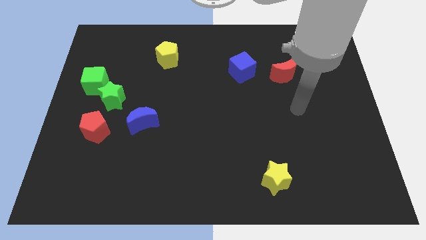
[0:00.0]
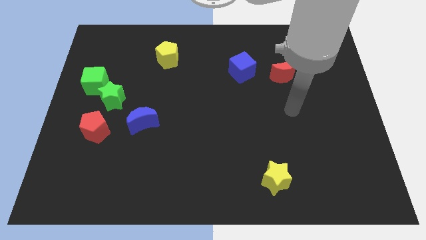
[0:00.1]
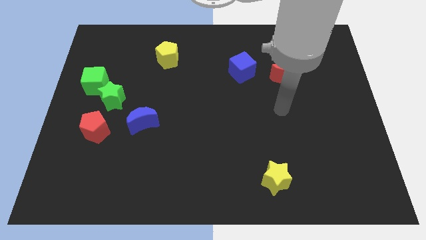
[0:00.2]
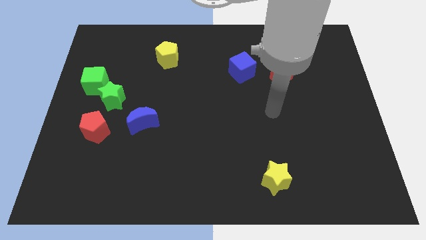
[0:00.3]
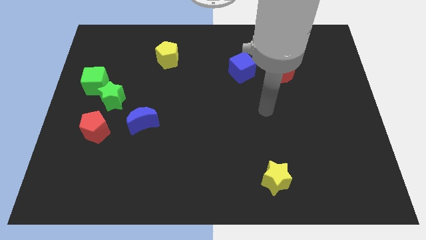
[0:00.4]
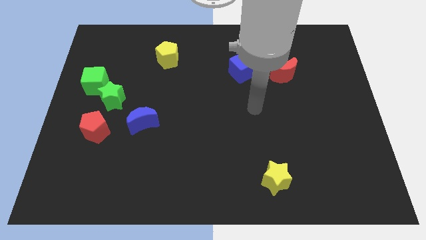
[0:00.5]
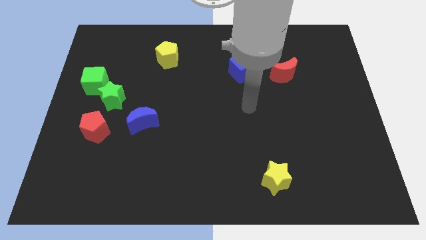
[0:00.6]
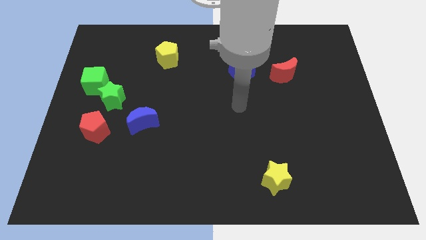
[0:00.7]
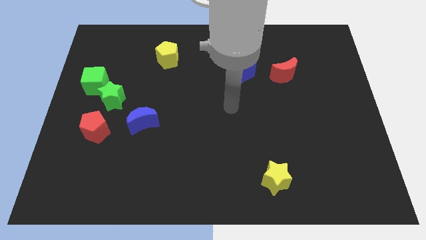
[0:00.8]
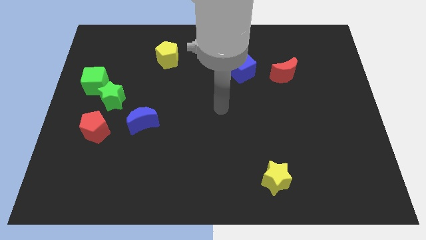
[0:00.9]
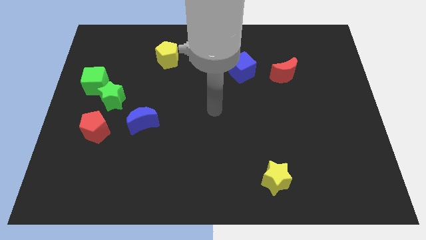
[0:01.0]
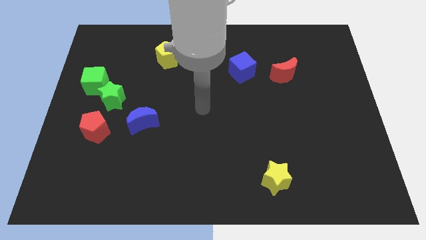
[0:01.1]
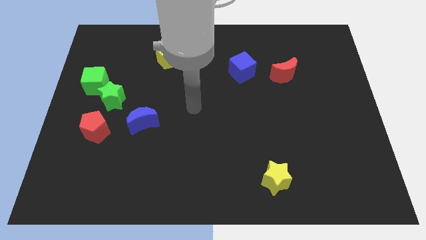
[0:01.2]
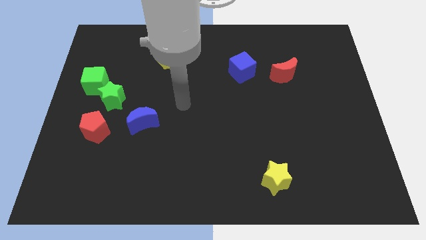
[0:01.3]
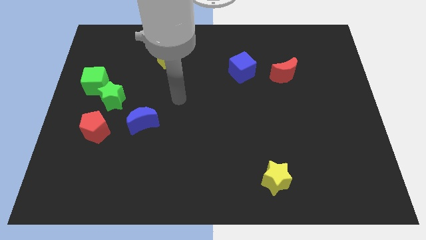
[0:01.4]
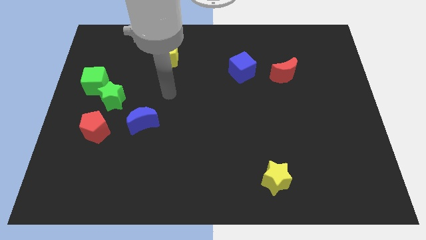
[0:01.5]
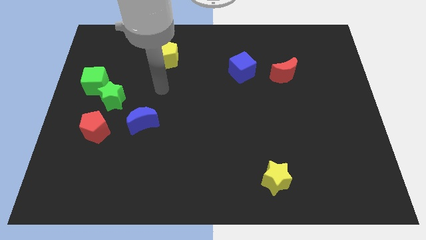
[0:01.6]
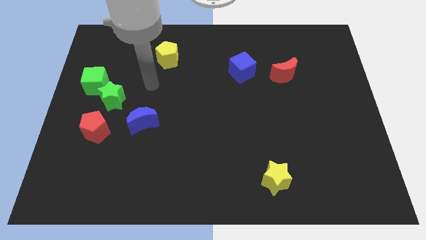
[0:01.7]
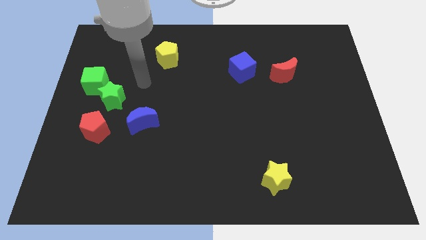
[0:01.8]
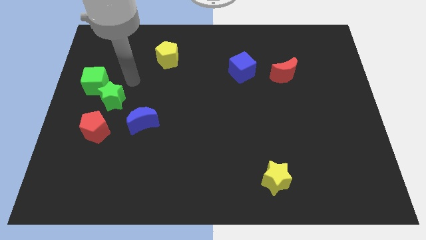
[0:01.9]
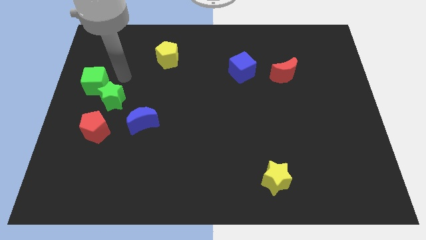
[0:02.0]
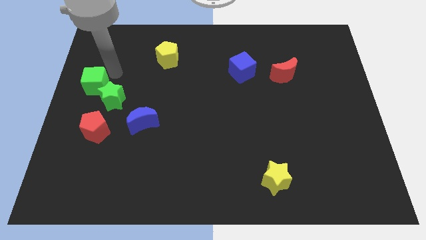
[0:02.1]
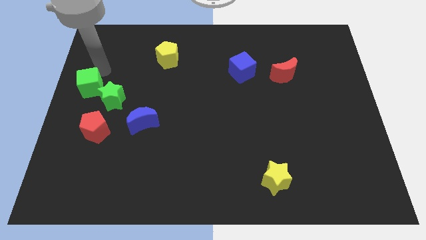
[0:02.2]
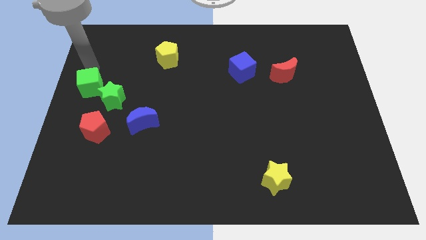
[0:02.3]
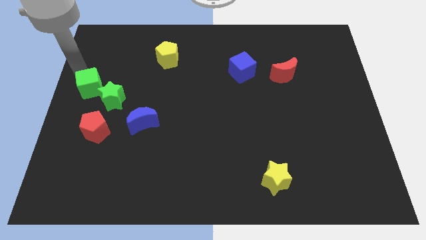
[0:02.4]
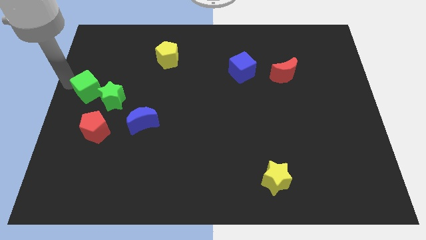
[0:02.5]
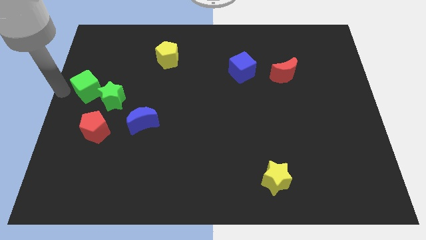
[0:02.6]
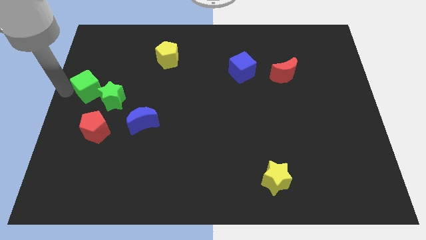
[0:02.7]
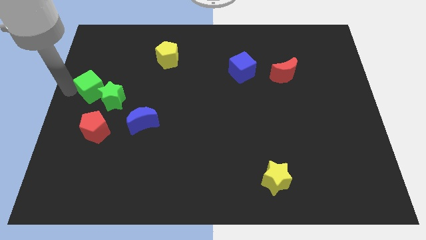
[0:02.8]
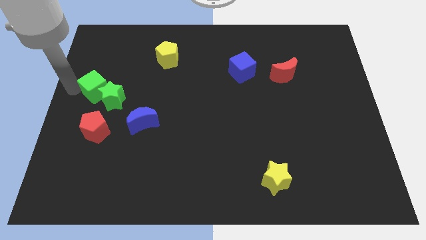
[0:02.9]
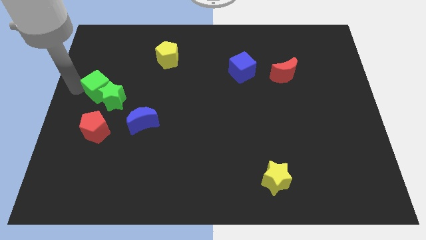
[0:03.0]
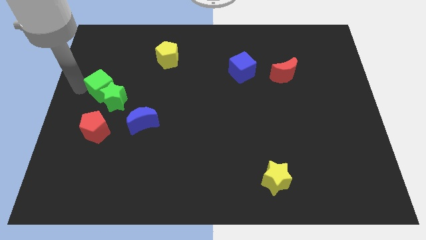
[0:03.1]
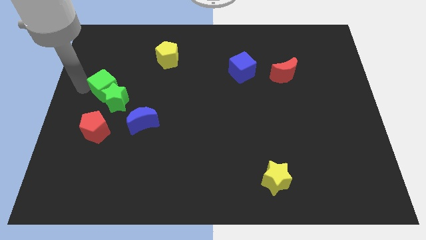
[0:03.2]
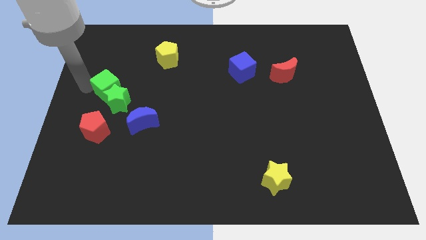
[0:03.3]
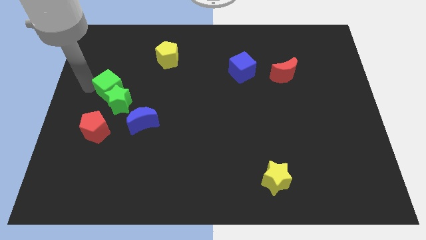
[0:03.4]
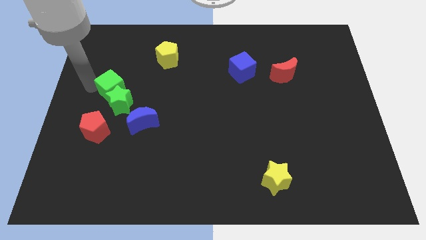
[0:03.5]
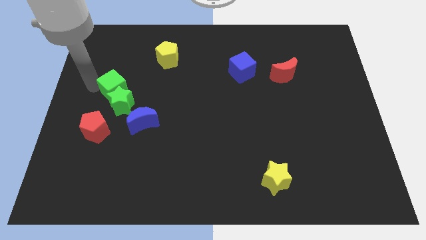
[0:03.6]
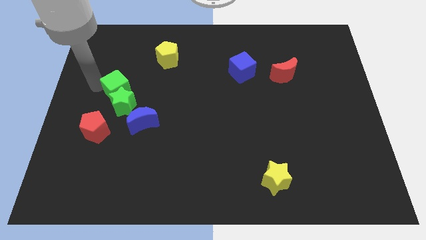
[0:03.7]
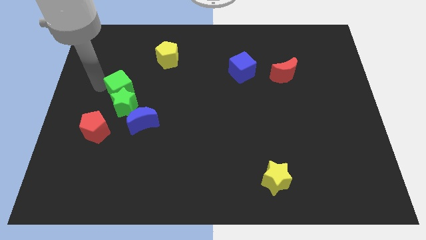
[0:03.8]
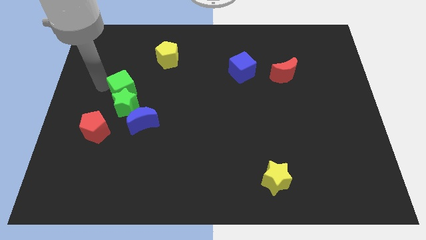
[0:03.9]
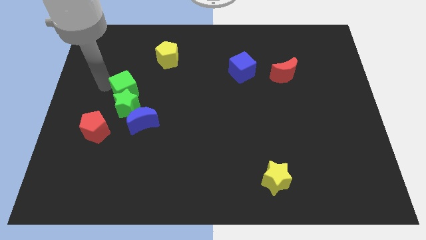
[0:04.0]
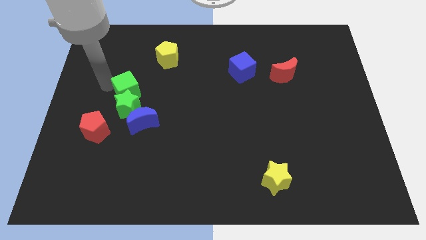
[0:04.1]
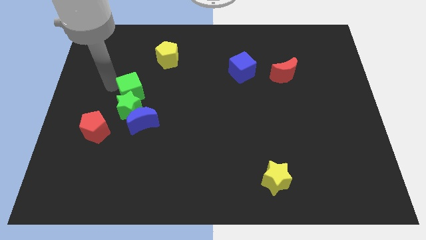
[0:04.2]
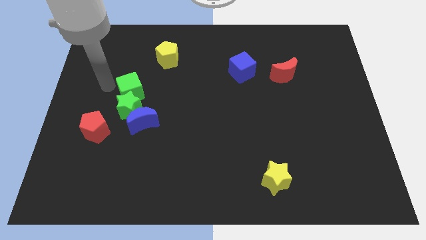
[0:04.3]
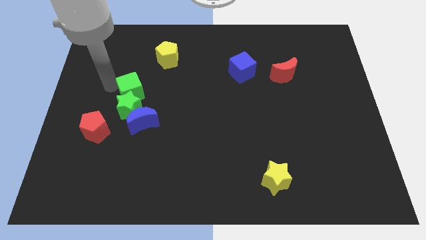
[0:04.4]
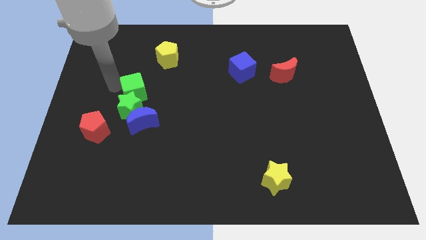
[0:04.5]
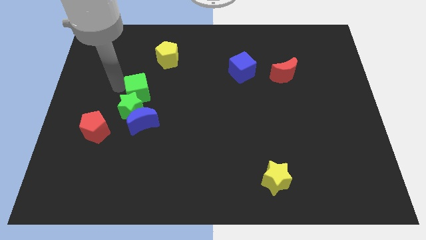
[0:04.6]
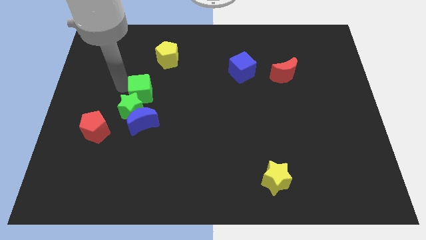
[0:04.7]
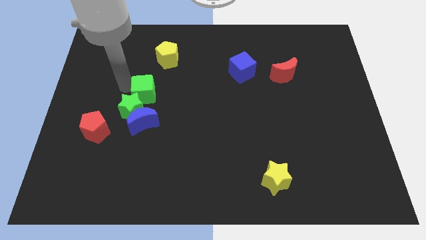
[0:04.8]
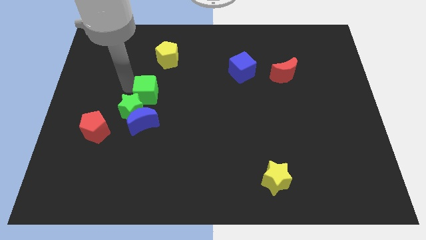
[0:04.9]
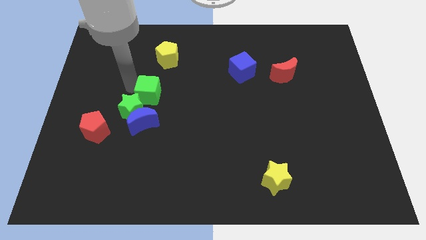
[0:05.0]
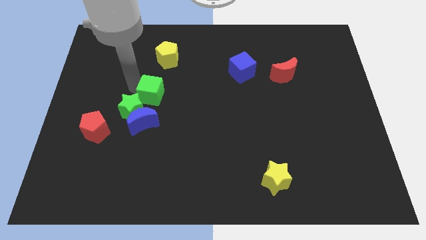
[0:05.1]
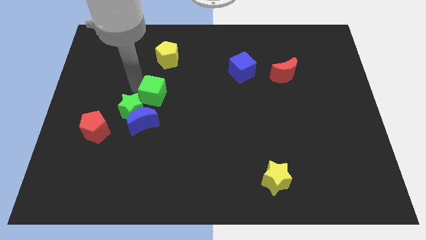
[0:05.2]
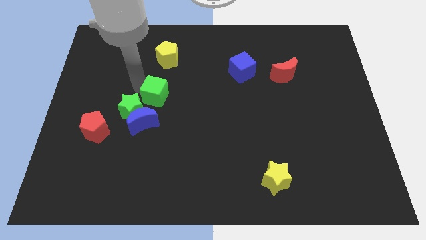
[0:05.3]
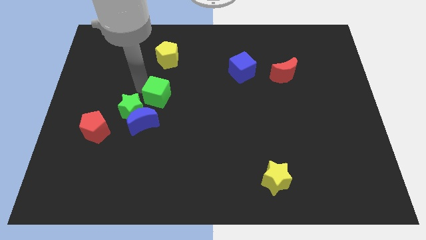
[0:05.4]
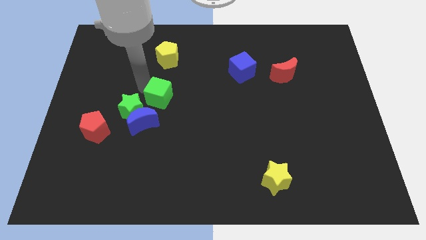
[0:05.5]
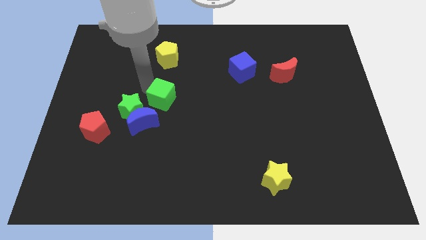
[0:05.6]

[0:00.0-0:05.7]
put the green cube to the center
